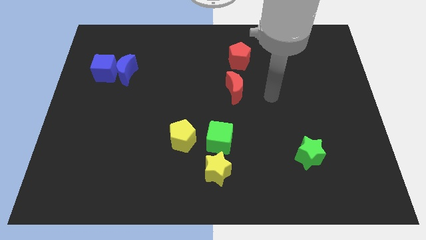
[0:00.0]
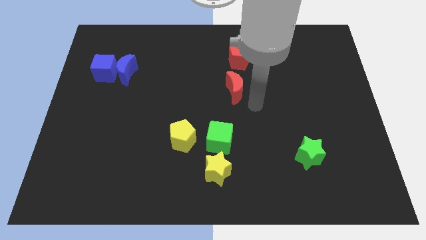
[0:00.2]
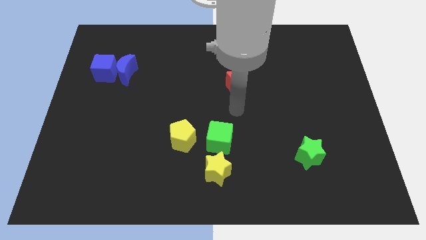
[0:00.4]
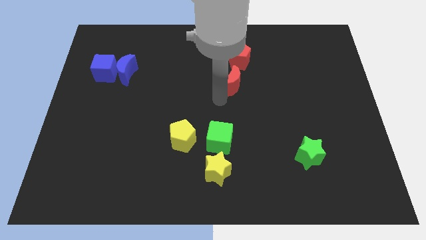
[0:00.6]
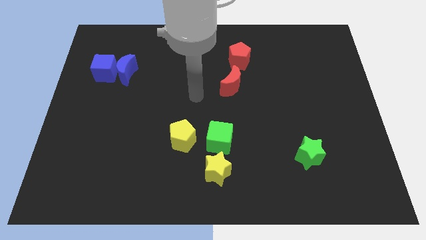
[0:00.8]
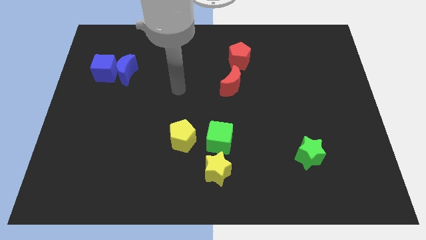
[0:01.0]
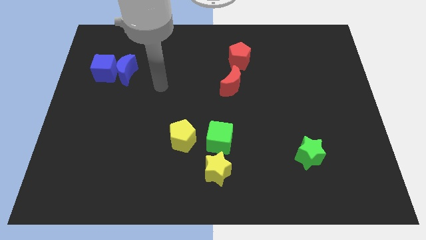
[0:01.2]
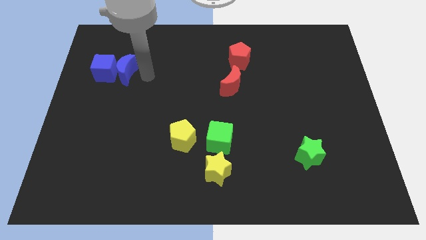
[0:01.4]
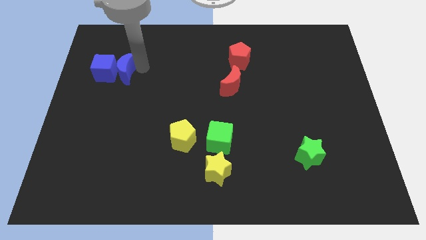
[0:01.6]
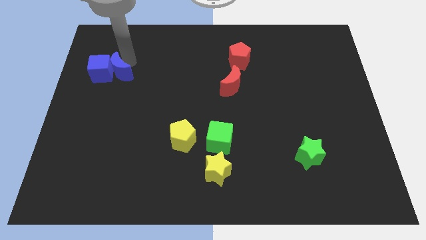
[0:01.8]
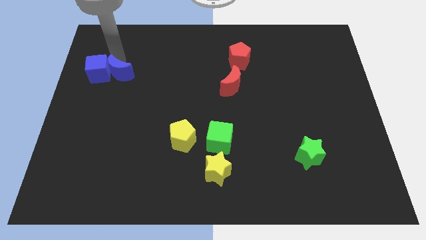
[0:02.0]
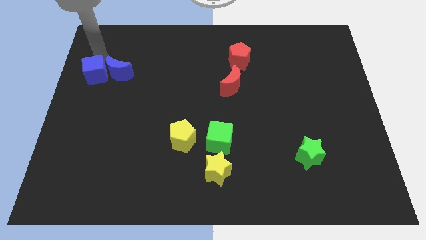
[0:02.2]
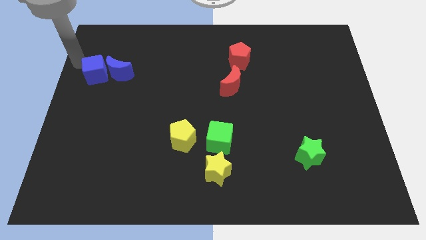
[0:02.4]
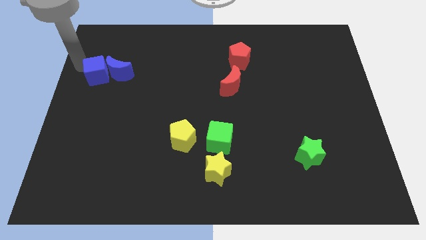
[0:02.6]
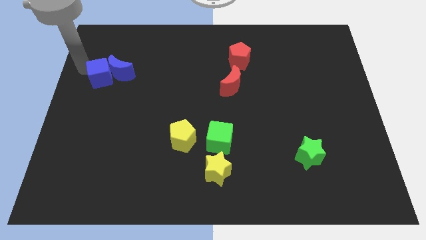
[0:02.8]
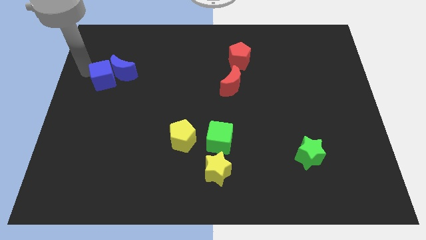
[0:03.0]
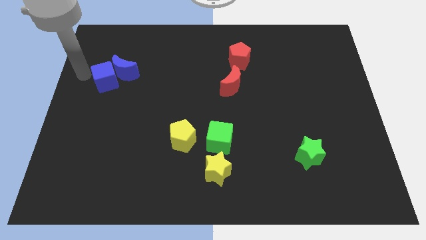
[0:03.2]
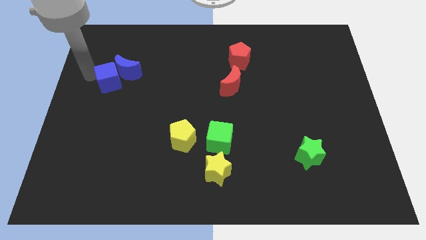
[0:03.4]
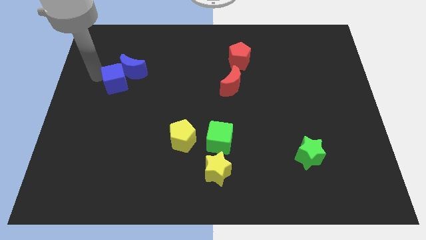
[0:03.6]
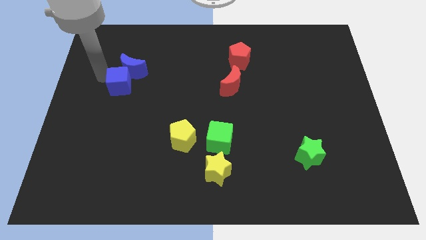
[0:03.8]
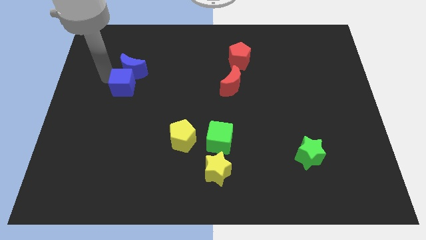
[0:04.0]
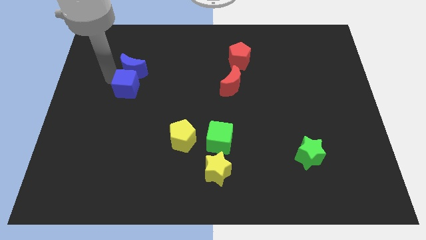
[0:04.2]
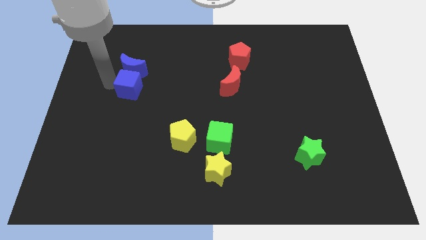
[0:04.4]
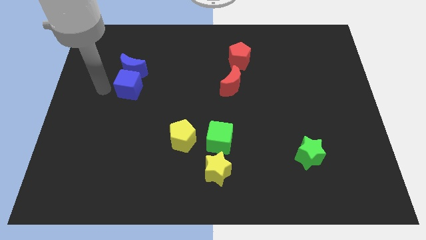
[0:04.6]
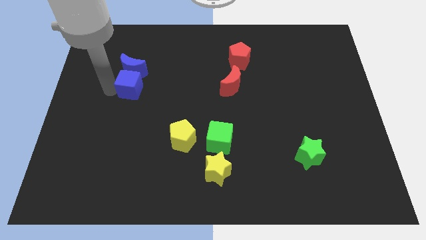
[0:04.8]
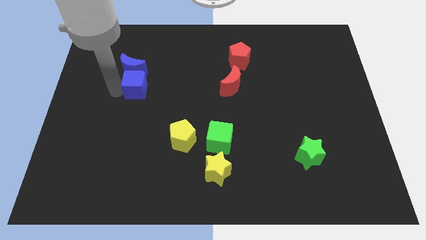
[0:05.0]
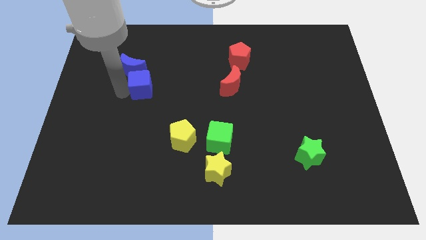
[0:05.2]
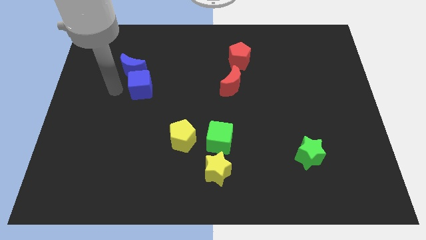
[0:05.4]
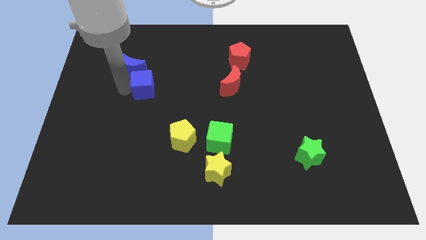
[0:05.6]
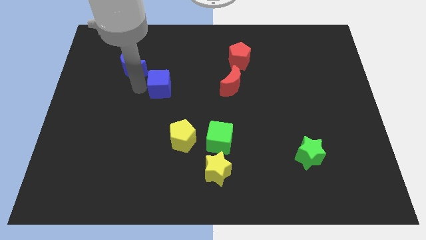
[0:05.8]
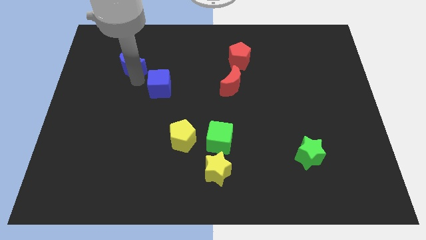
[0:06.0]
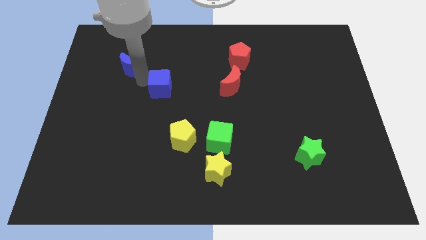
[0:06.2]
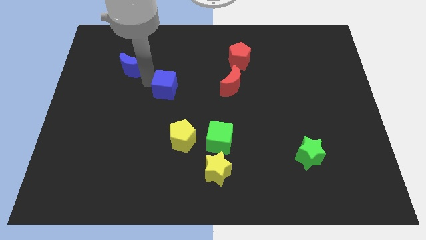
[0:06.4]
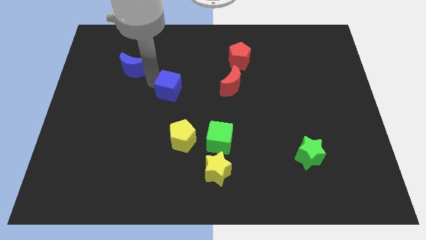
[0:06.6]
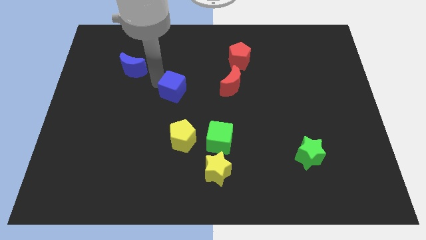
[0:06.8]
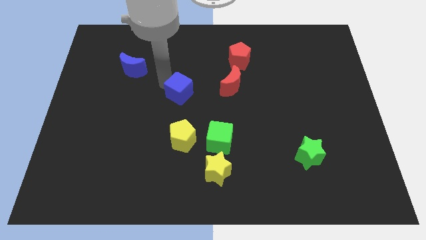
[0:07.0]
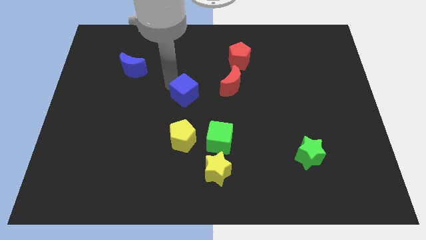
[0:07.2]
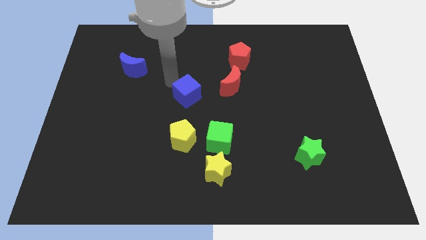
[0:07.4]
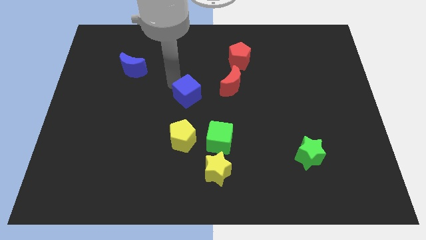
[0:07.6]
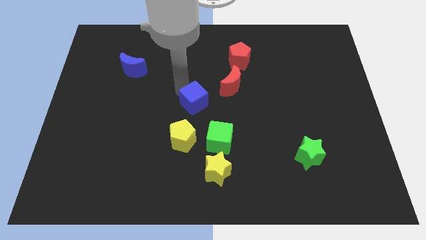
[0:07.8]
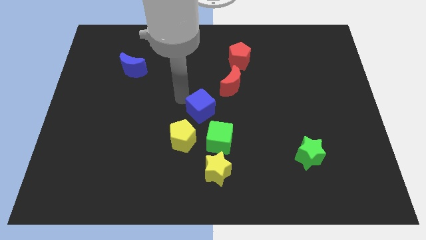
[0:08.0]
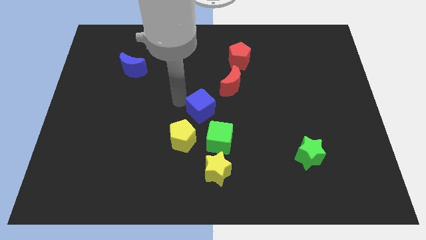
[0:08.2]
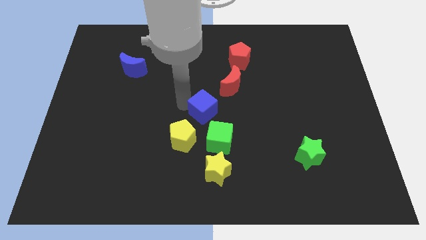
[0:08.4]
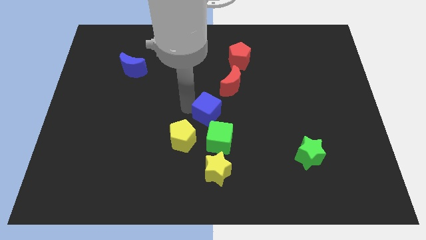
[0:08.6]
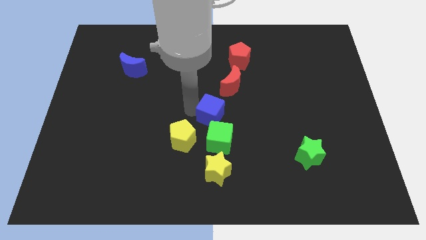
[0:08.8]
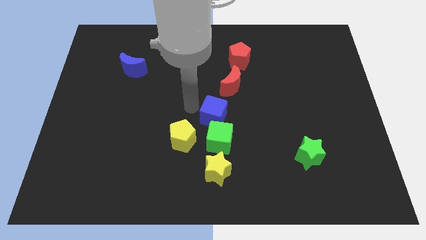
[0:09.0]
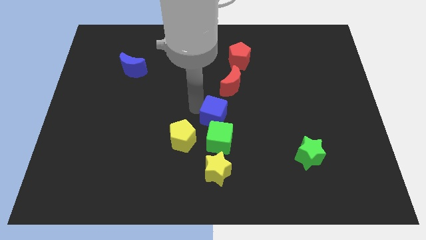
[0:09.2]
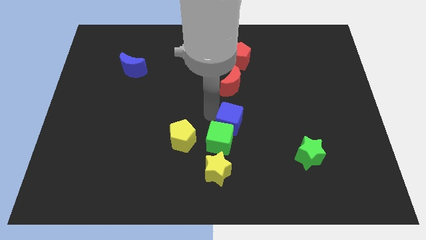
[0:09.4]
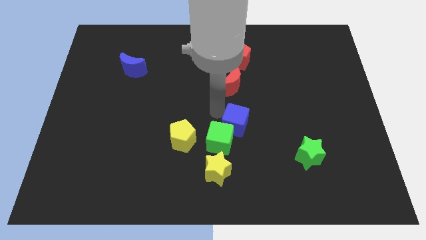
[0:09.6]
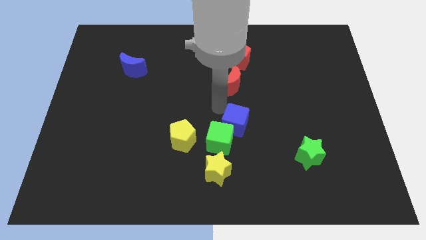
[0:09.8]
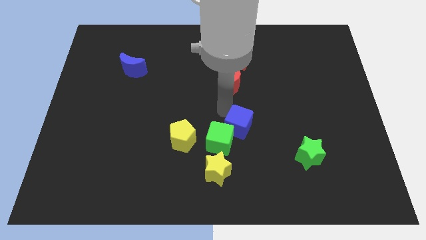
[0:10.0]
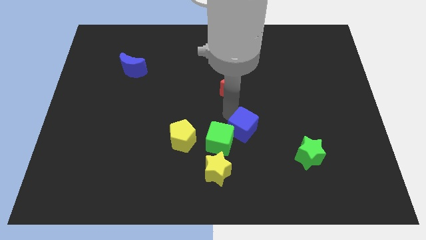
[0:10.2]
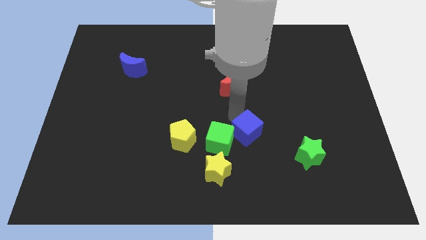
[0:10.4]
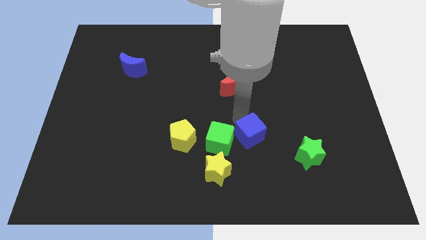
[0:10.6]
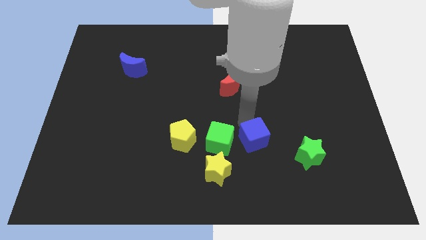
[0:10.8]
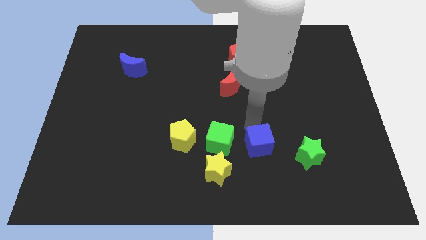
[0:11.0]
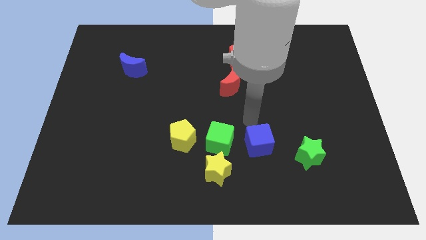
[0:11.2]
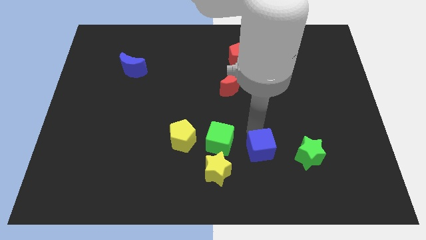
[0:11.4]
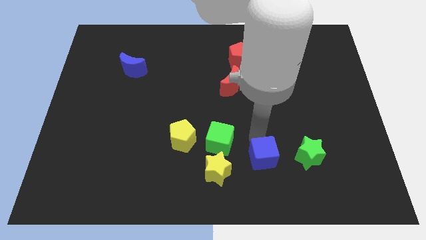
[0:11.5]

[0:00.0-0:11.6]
put the blue cube just right of the yellow star

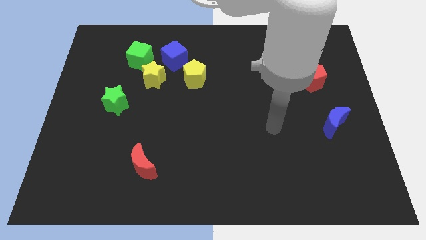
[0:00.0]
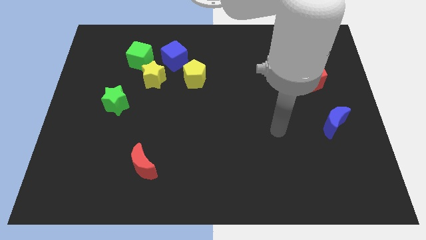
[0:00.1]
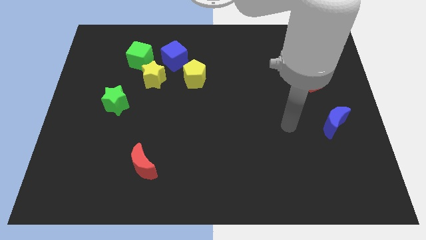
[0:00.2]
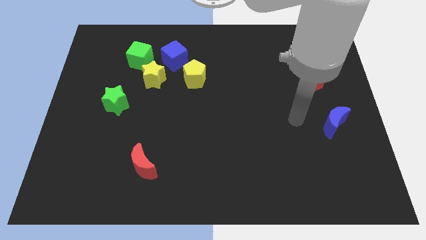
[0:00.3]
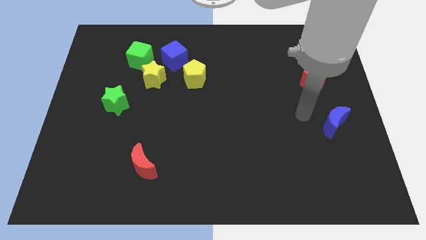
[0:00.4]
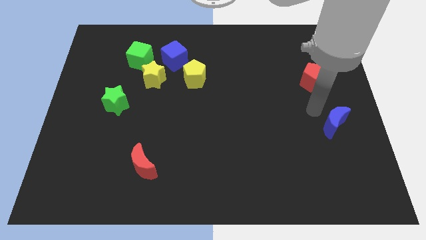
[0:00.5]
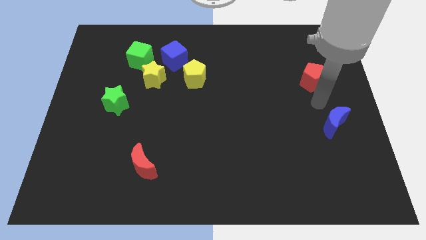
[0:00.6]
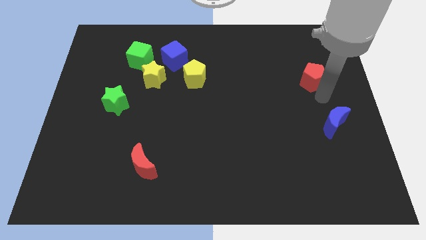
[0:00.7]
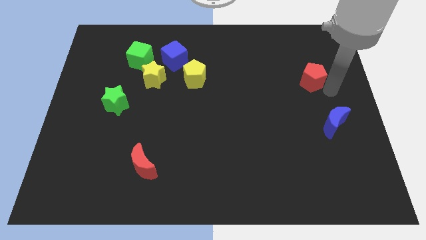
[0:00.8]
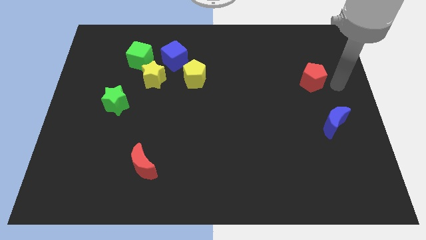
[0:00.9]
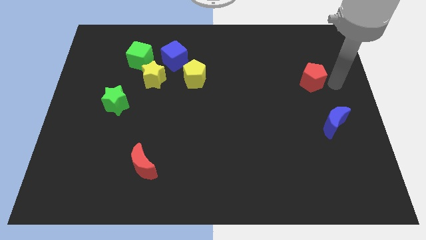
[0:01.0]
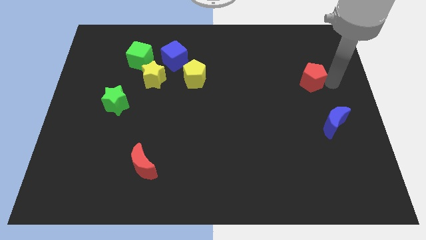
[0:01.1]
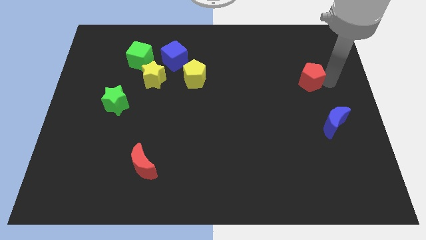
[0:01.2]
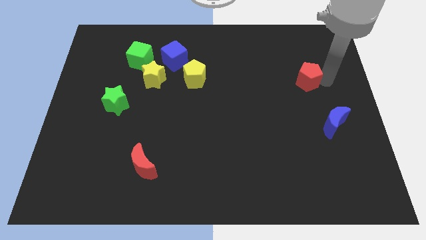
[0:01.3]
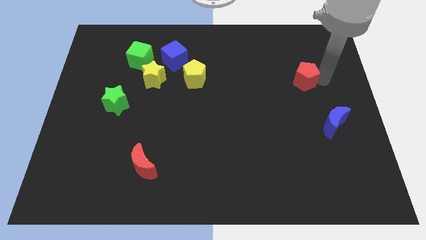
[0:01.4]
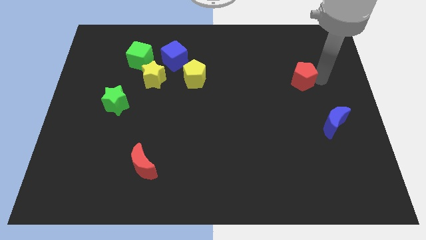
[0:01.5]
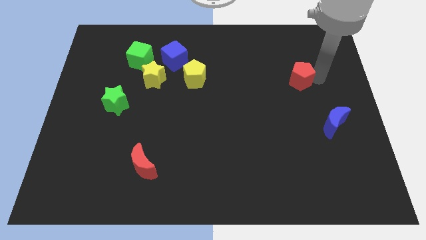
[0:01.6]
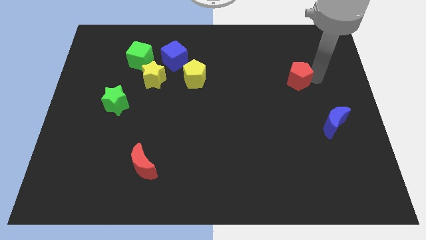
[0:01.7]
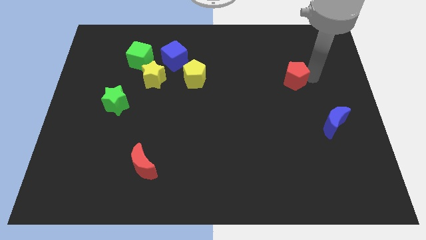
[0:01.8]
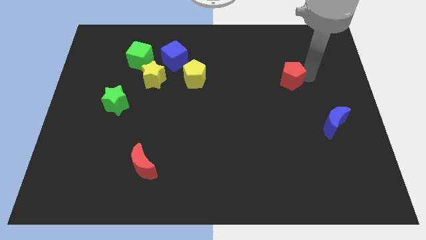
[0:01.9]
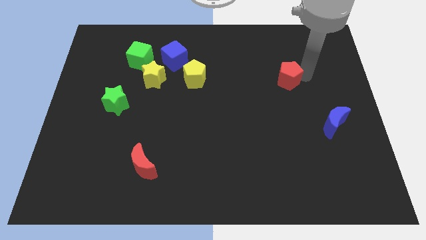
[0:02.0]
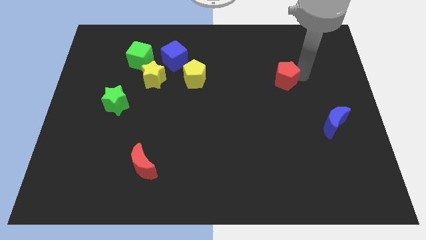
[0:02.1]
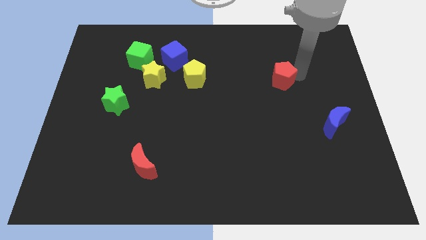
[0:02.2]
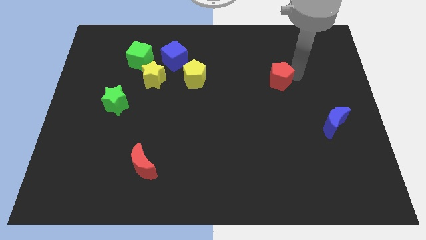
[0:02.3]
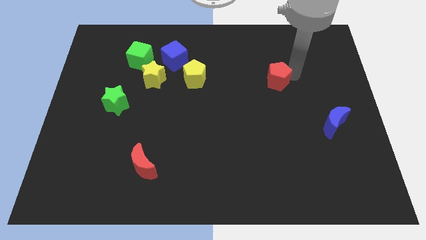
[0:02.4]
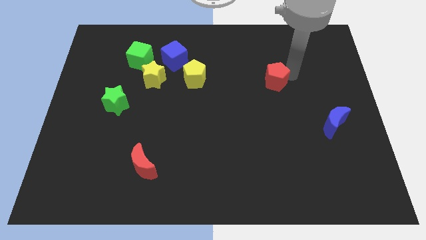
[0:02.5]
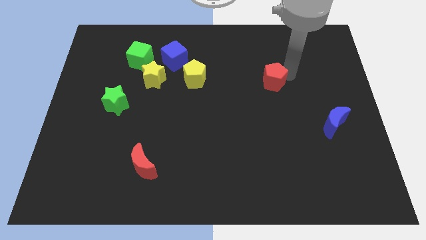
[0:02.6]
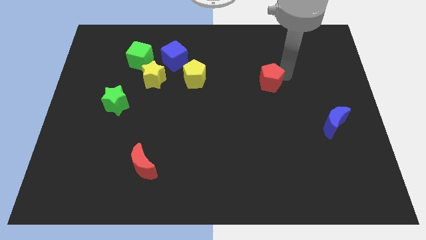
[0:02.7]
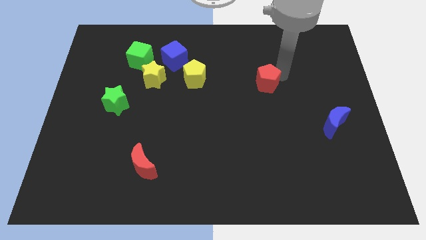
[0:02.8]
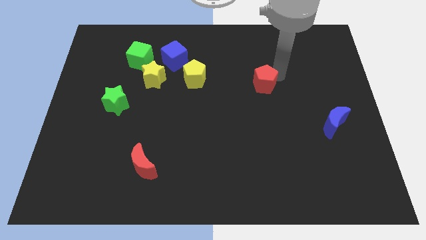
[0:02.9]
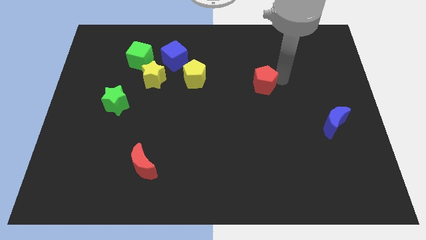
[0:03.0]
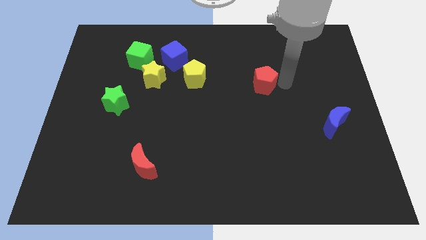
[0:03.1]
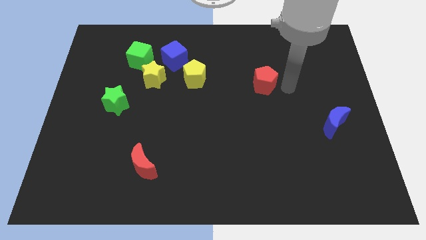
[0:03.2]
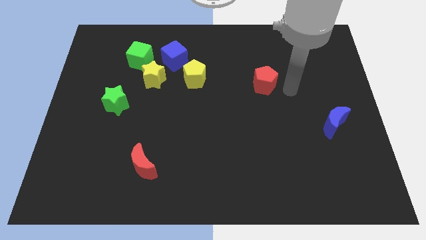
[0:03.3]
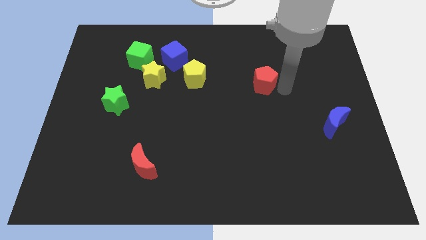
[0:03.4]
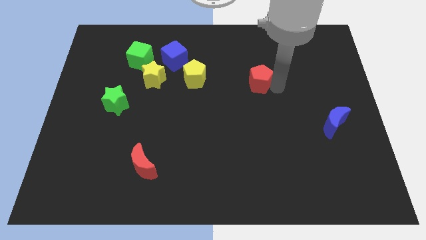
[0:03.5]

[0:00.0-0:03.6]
push the red pentagon to the right of the yellow pentagon
